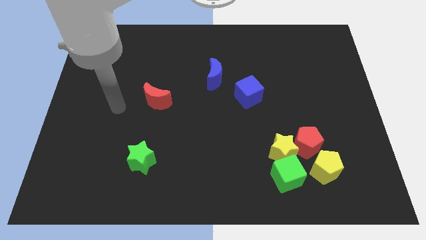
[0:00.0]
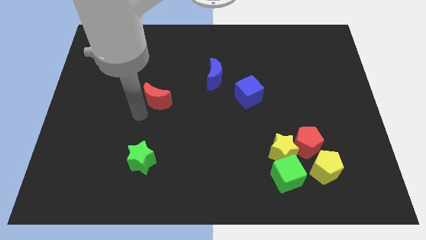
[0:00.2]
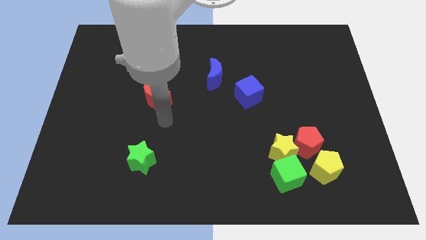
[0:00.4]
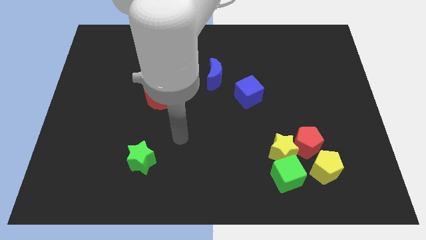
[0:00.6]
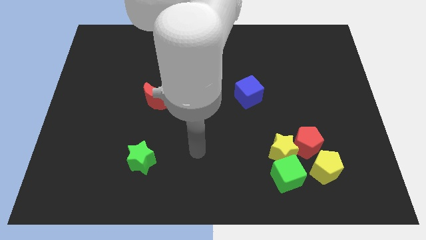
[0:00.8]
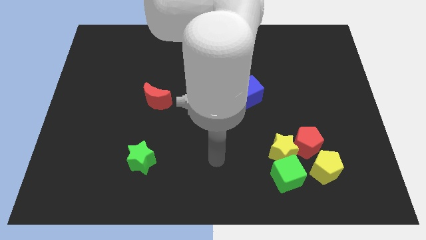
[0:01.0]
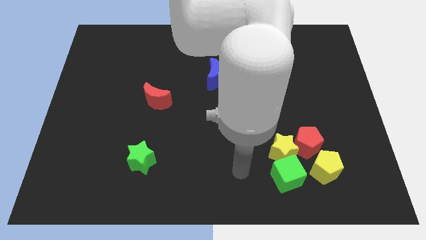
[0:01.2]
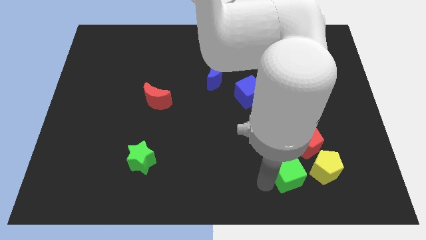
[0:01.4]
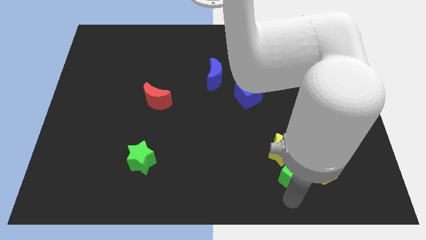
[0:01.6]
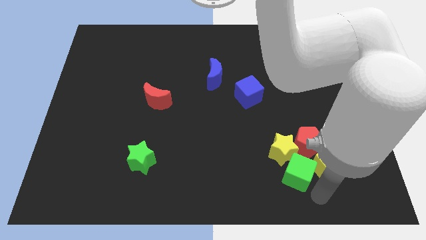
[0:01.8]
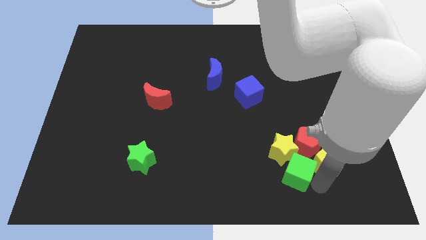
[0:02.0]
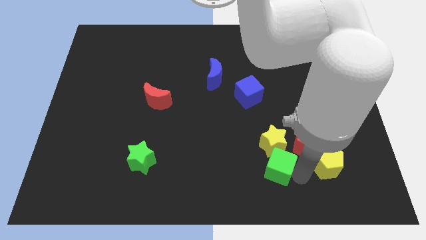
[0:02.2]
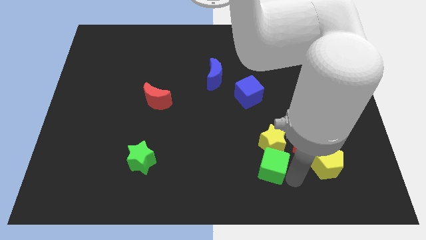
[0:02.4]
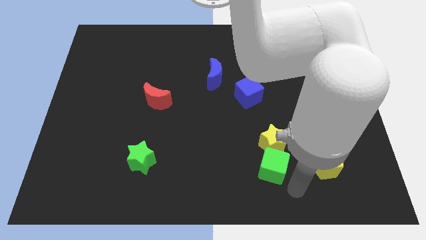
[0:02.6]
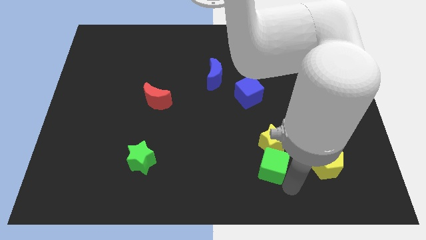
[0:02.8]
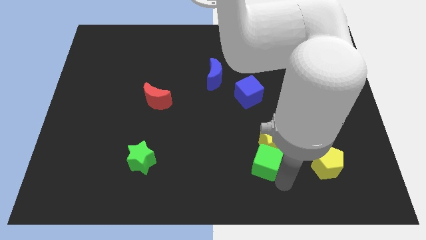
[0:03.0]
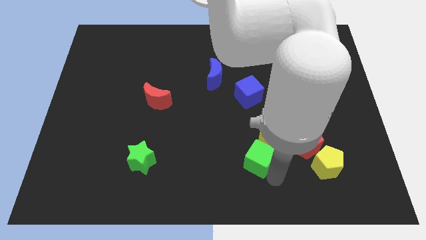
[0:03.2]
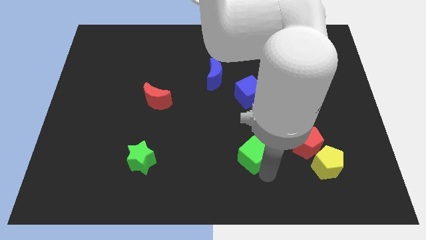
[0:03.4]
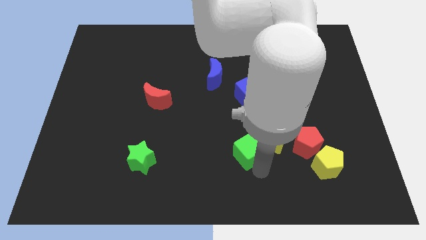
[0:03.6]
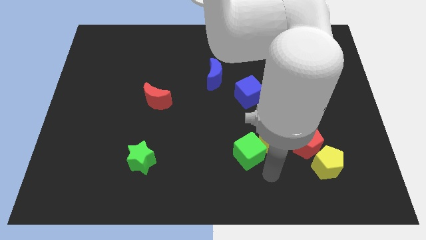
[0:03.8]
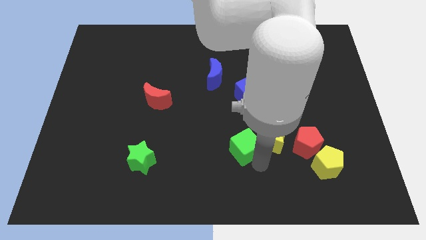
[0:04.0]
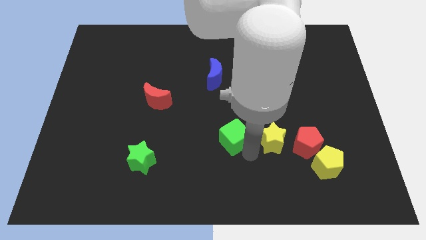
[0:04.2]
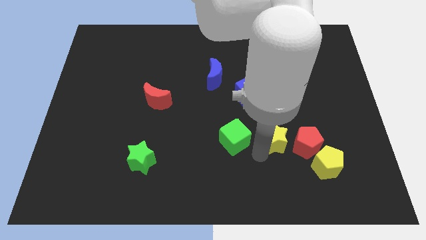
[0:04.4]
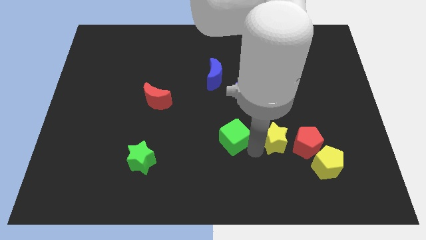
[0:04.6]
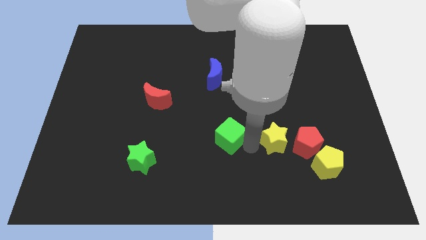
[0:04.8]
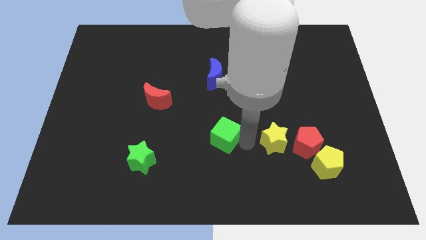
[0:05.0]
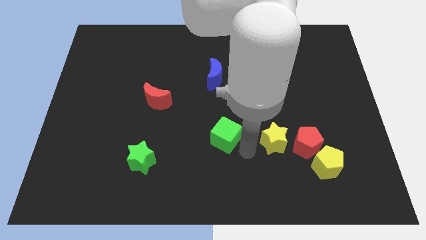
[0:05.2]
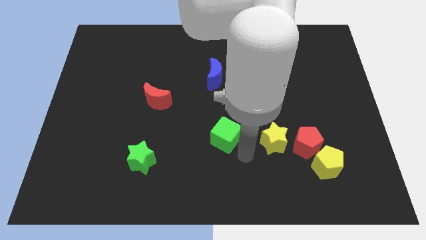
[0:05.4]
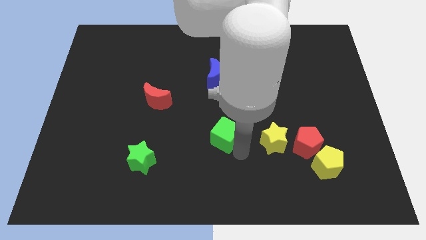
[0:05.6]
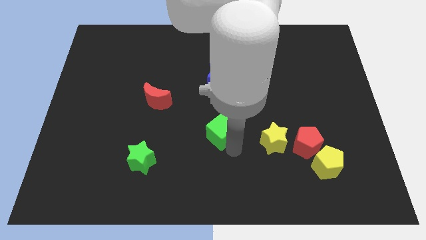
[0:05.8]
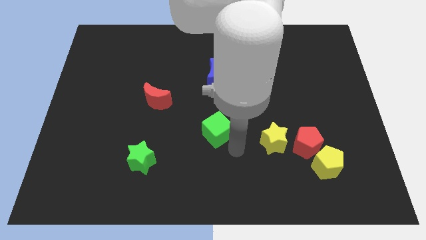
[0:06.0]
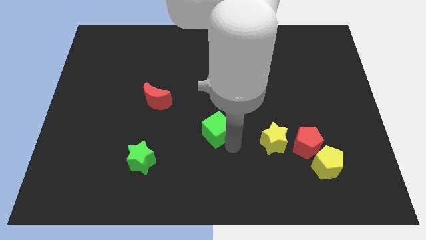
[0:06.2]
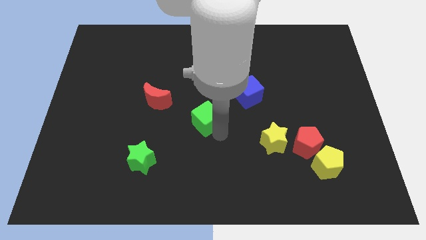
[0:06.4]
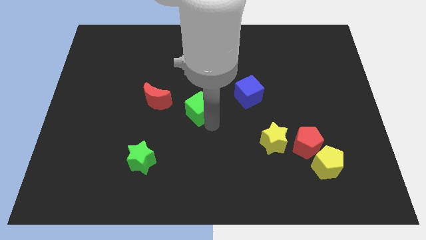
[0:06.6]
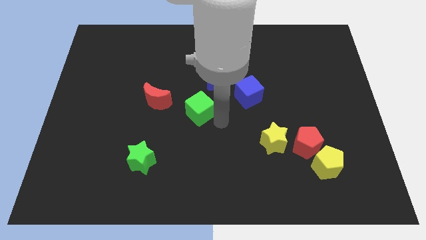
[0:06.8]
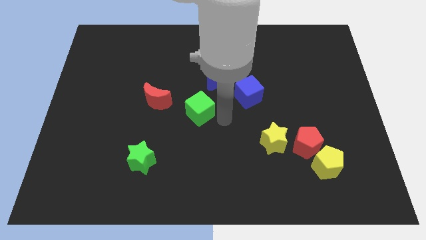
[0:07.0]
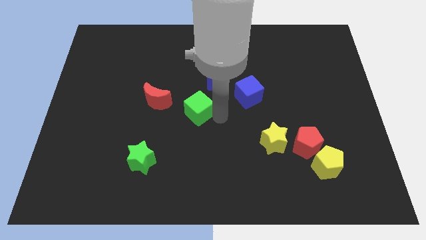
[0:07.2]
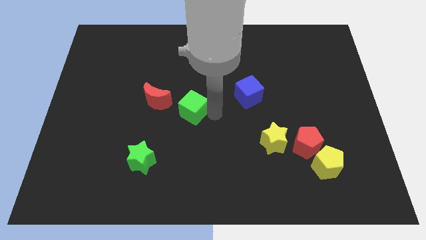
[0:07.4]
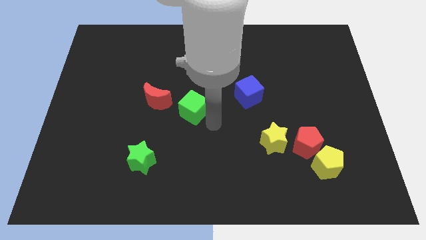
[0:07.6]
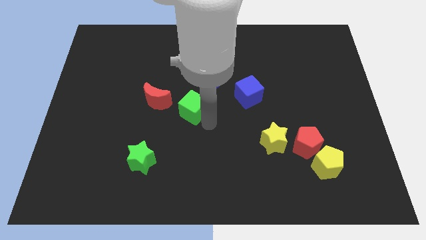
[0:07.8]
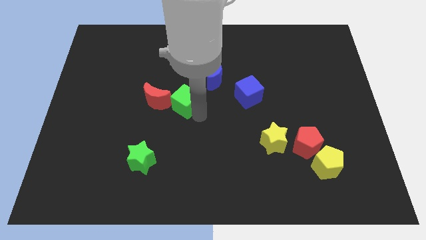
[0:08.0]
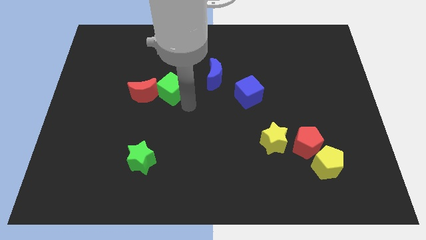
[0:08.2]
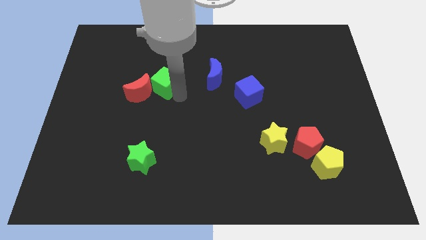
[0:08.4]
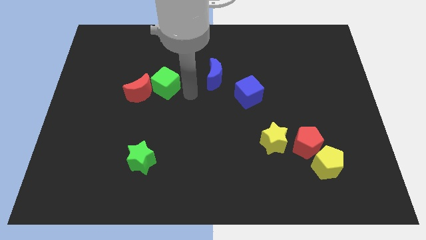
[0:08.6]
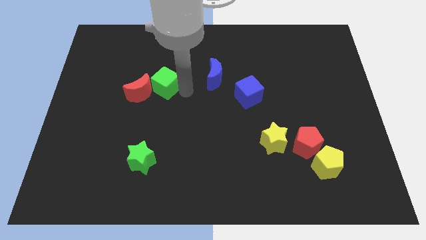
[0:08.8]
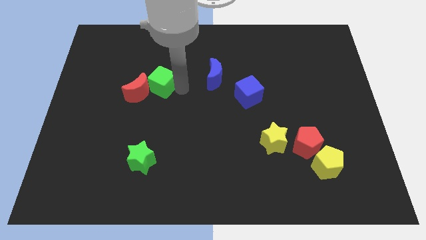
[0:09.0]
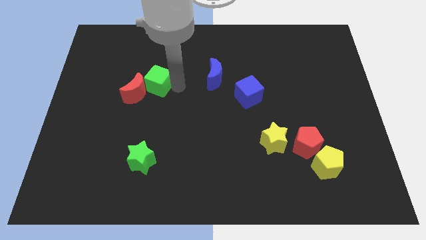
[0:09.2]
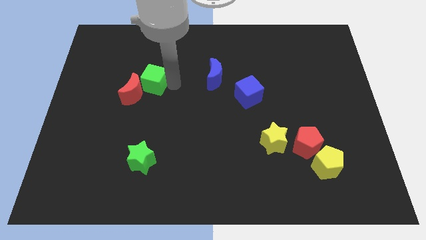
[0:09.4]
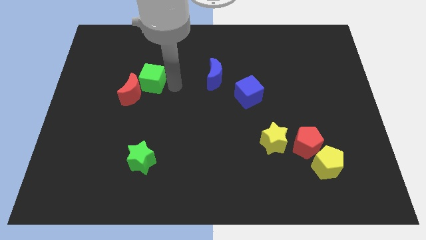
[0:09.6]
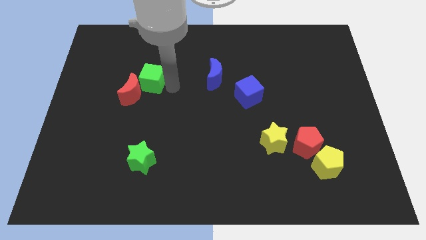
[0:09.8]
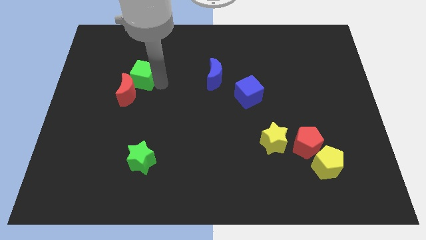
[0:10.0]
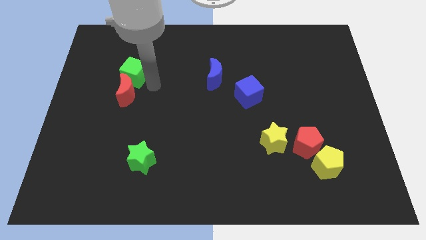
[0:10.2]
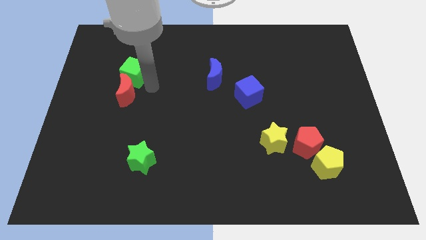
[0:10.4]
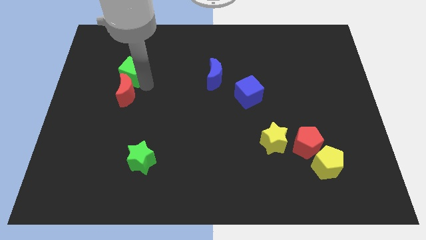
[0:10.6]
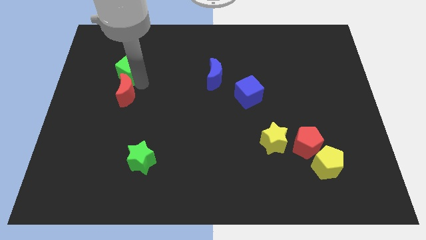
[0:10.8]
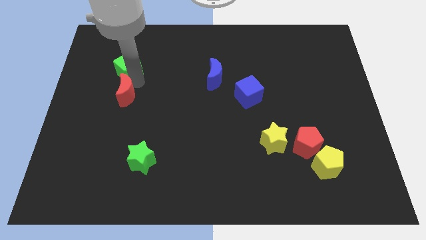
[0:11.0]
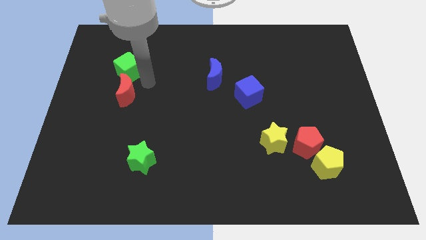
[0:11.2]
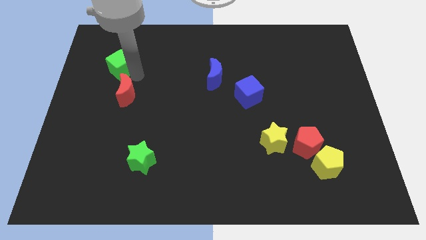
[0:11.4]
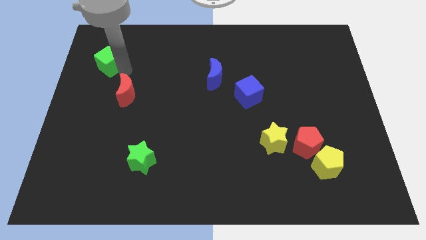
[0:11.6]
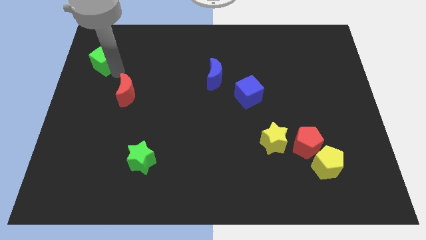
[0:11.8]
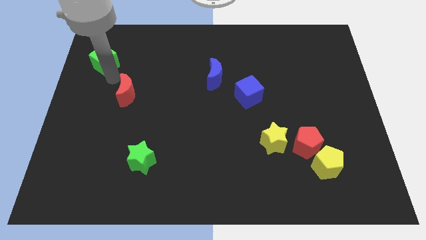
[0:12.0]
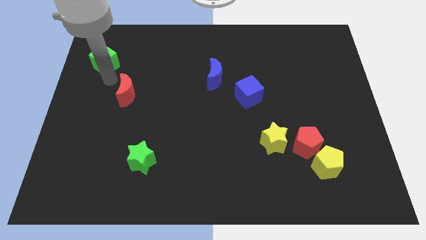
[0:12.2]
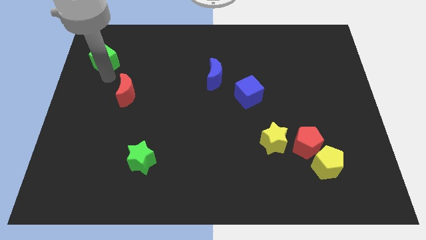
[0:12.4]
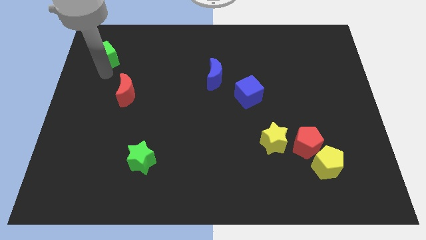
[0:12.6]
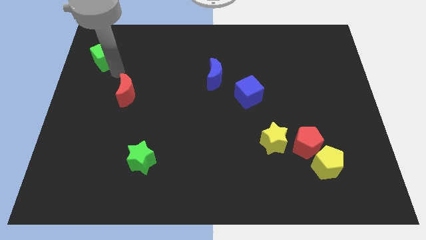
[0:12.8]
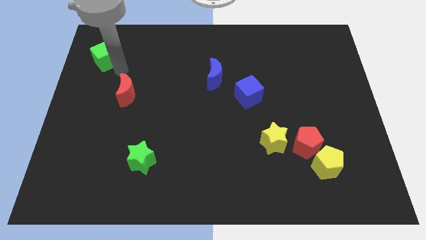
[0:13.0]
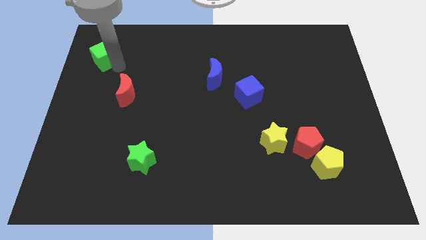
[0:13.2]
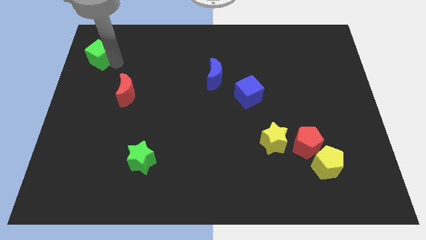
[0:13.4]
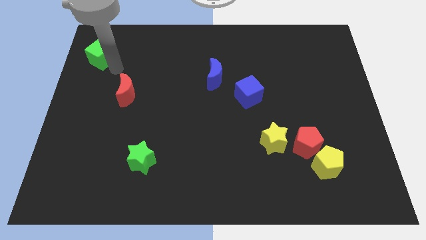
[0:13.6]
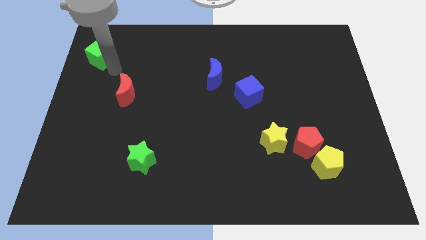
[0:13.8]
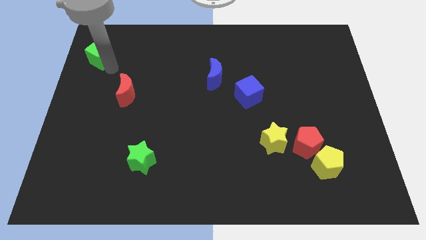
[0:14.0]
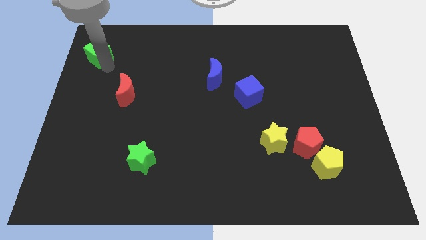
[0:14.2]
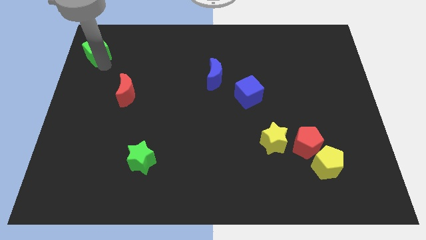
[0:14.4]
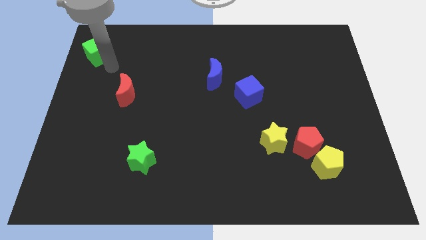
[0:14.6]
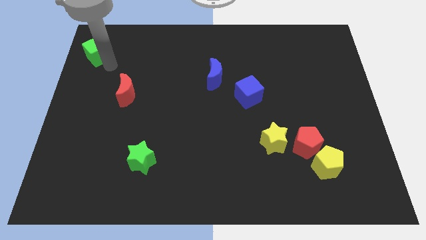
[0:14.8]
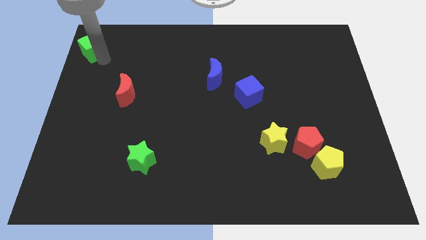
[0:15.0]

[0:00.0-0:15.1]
put the green cube to the top left corner
